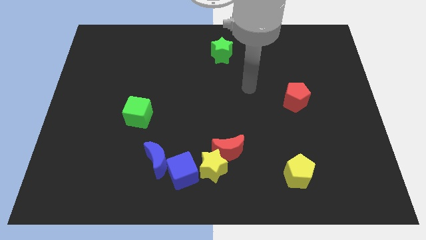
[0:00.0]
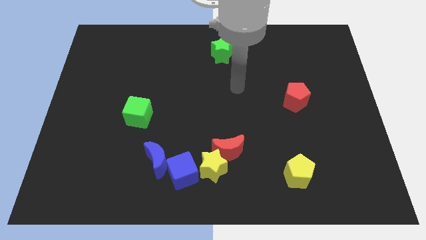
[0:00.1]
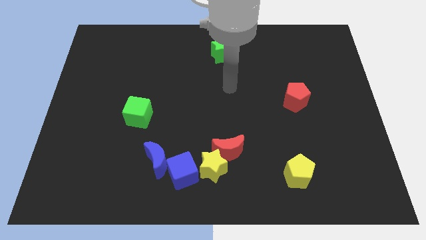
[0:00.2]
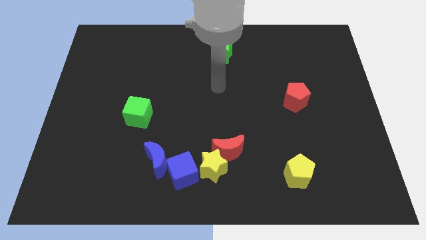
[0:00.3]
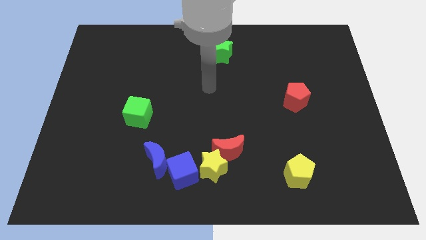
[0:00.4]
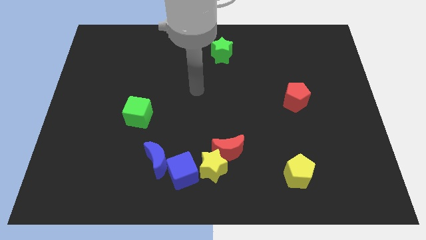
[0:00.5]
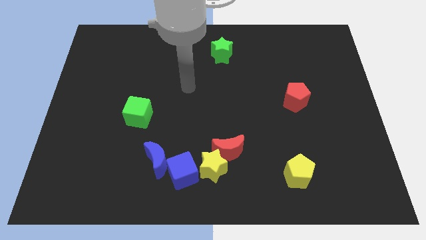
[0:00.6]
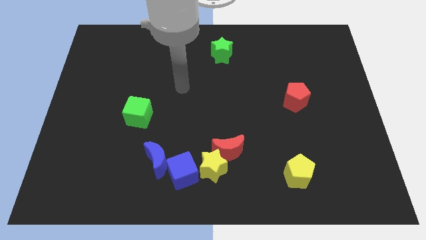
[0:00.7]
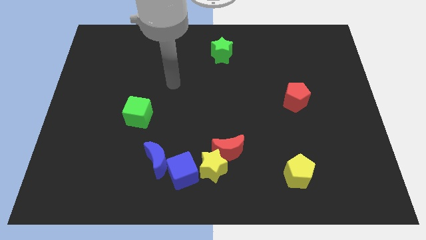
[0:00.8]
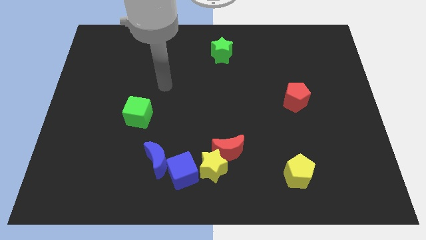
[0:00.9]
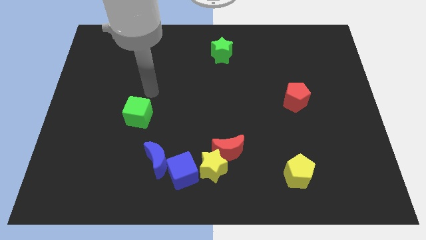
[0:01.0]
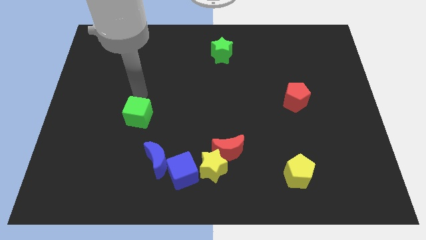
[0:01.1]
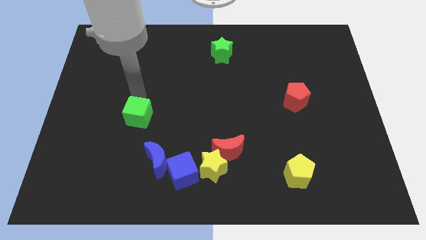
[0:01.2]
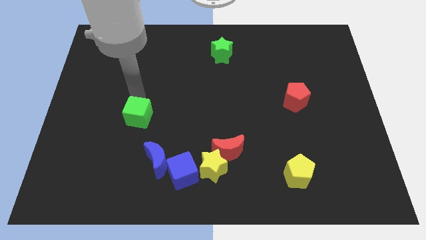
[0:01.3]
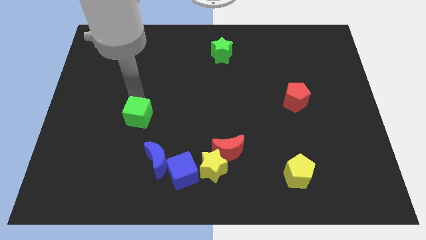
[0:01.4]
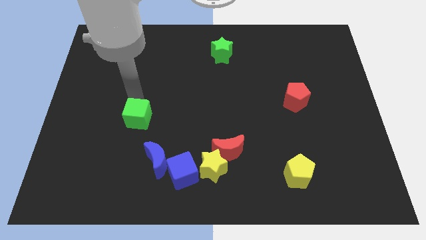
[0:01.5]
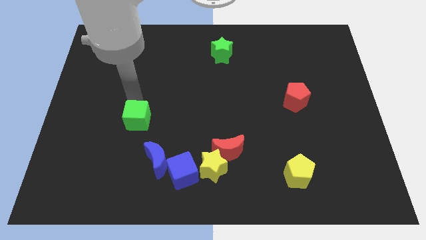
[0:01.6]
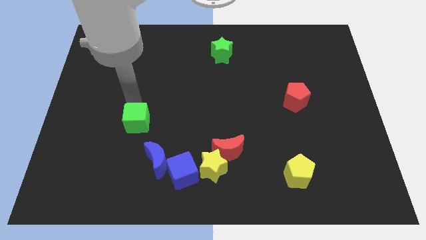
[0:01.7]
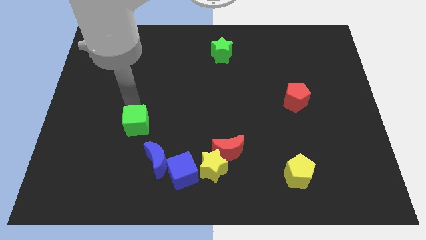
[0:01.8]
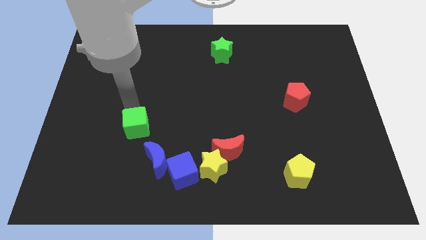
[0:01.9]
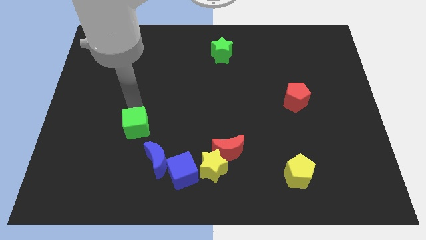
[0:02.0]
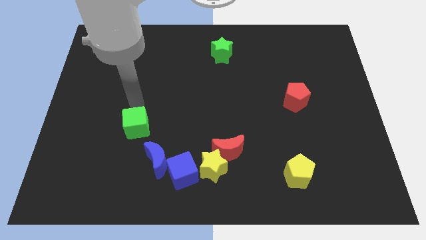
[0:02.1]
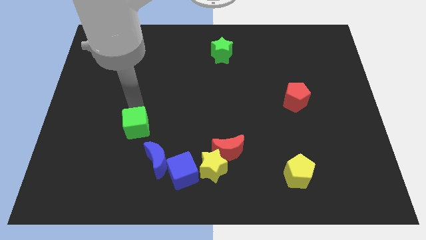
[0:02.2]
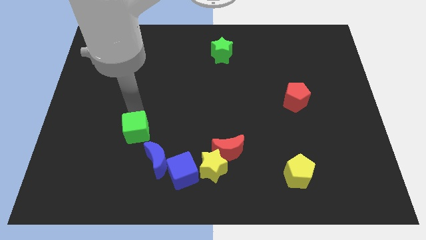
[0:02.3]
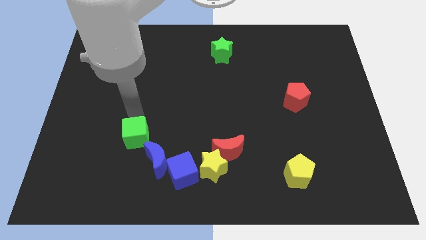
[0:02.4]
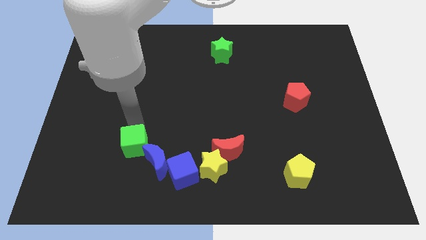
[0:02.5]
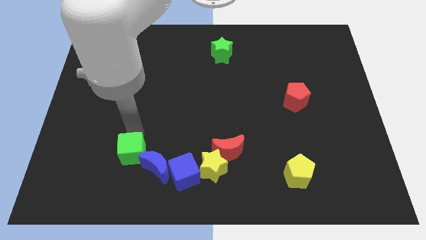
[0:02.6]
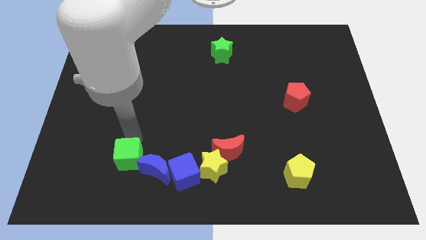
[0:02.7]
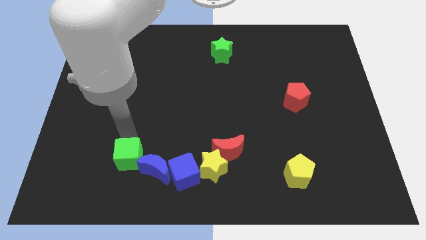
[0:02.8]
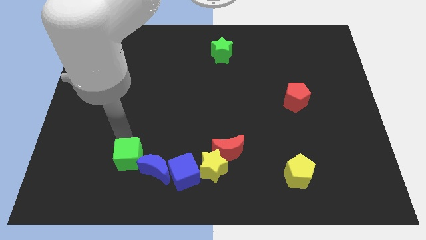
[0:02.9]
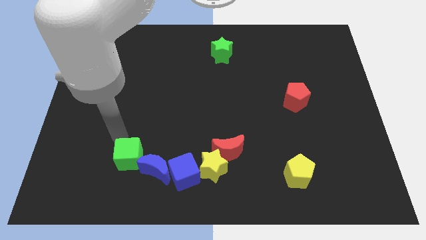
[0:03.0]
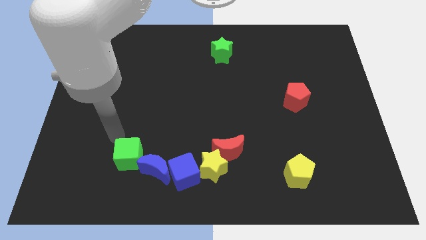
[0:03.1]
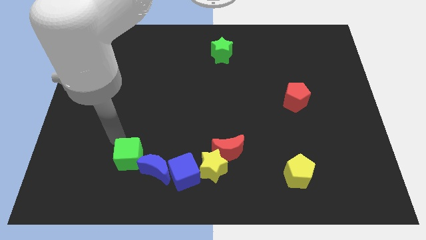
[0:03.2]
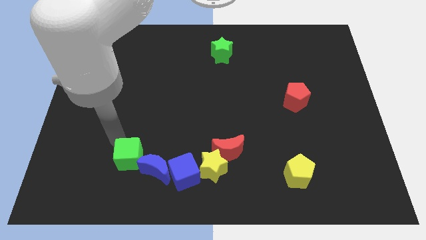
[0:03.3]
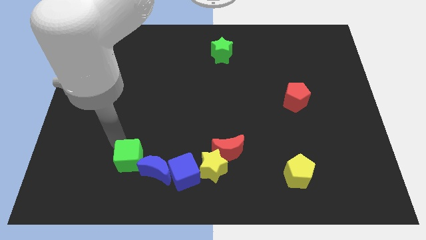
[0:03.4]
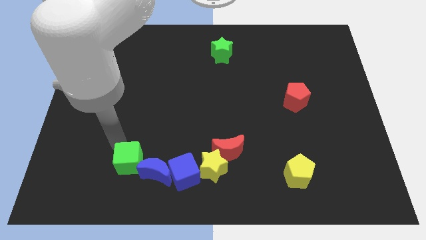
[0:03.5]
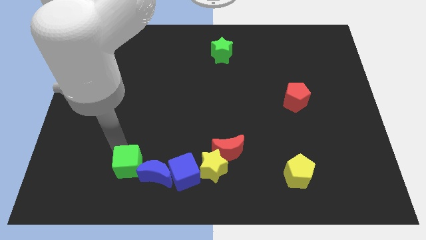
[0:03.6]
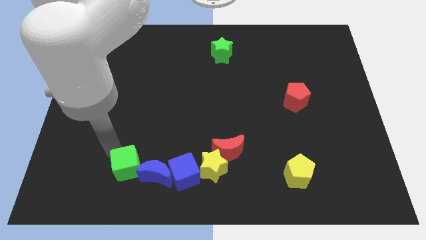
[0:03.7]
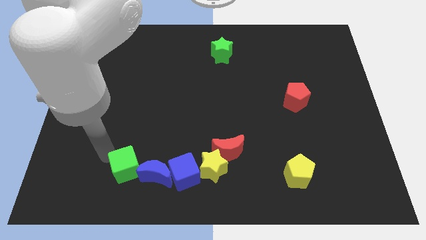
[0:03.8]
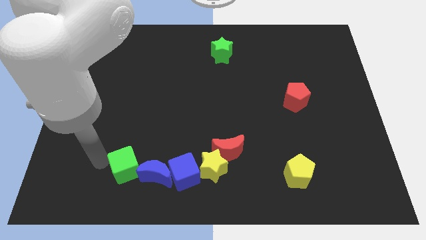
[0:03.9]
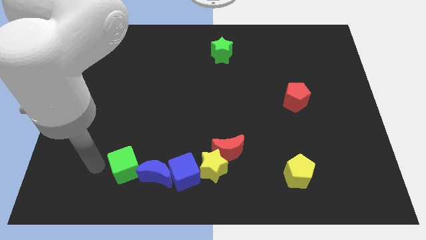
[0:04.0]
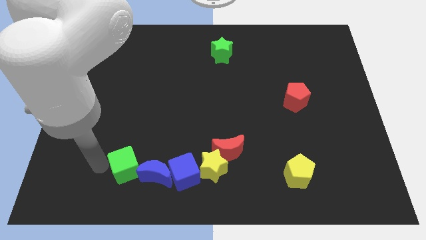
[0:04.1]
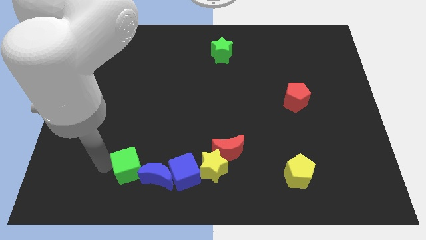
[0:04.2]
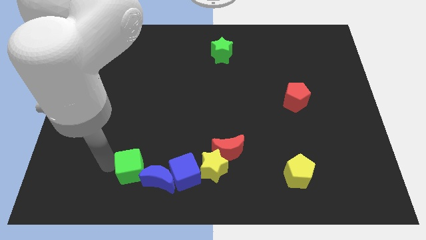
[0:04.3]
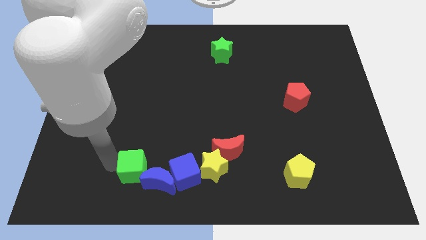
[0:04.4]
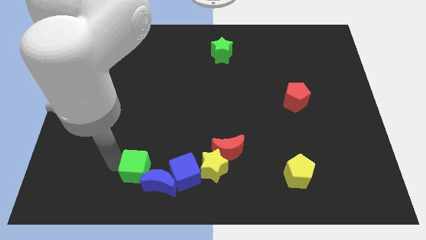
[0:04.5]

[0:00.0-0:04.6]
slide the green cube to the left side of the yellow star

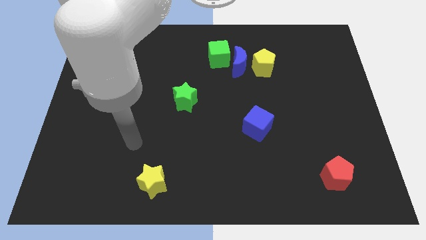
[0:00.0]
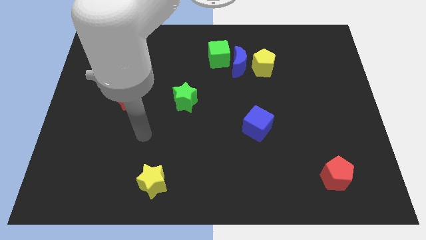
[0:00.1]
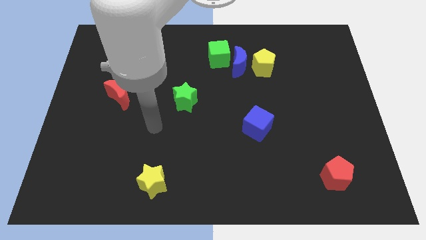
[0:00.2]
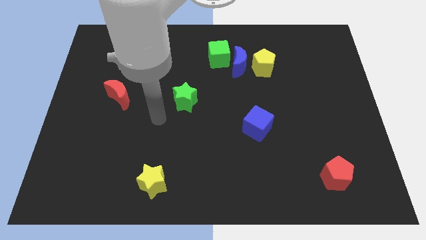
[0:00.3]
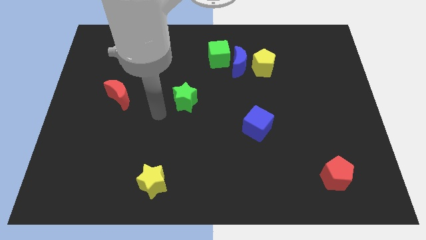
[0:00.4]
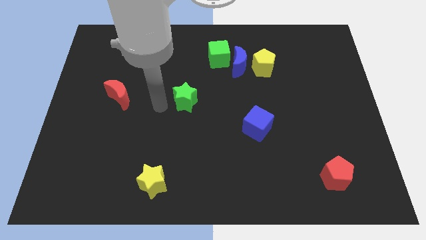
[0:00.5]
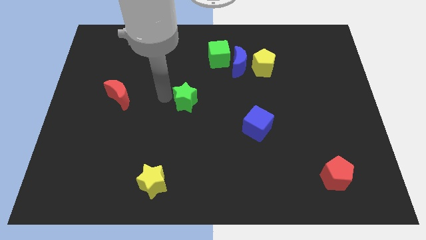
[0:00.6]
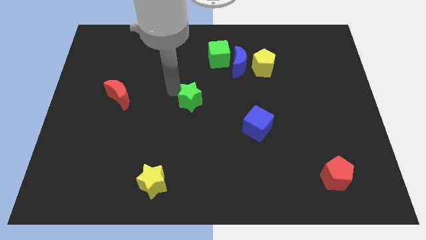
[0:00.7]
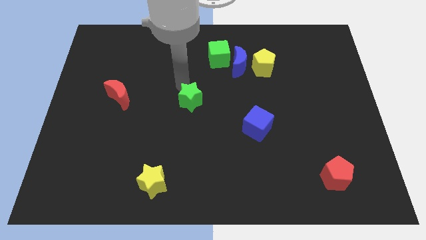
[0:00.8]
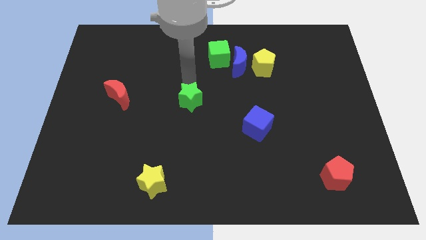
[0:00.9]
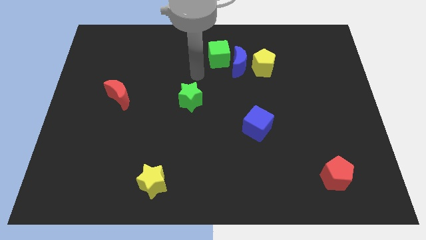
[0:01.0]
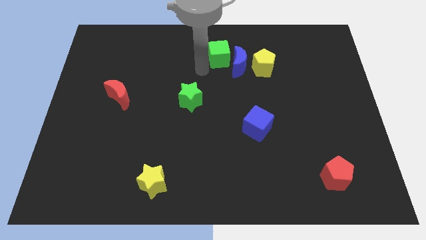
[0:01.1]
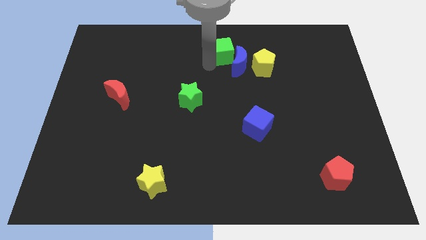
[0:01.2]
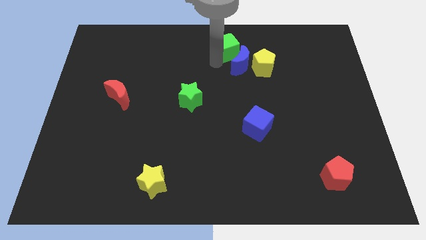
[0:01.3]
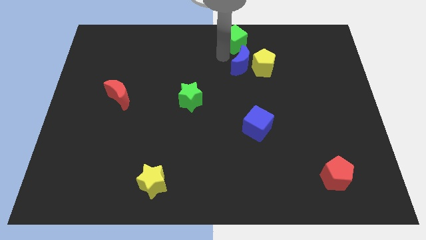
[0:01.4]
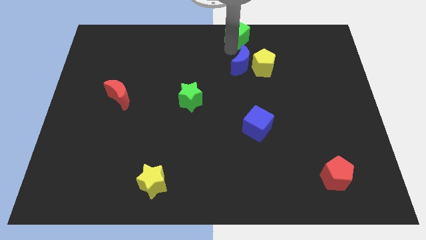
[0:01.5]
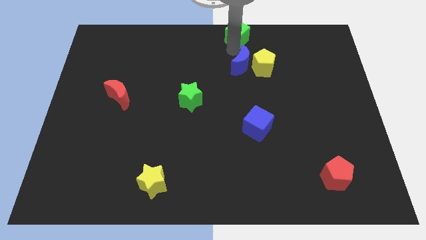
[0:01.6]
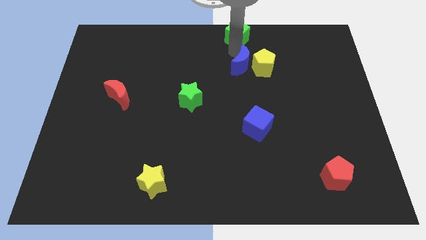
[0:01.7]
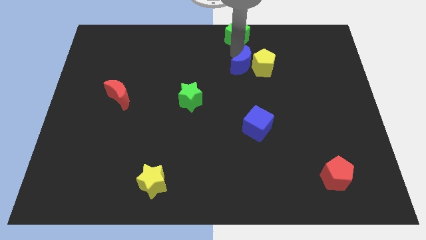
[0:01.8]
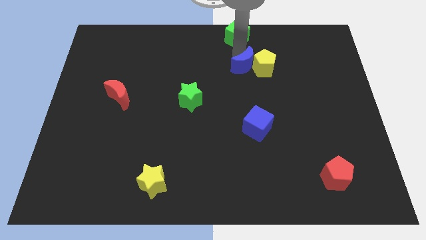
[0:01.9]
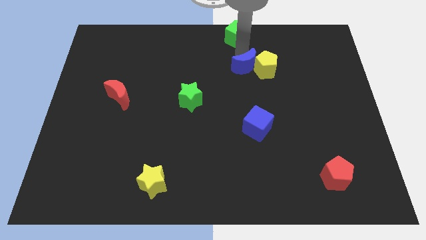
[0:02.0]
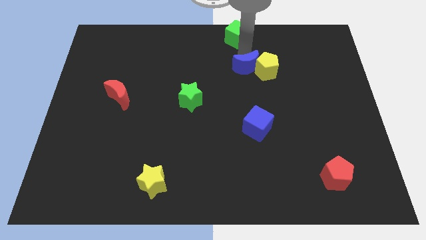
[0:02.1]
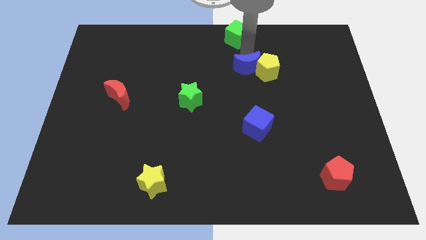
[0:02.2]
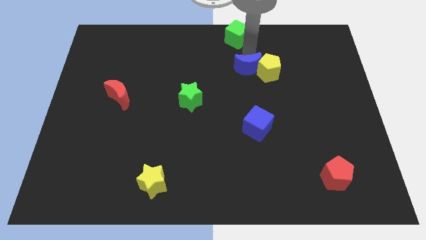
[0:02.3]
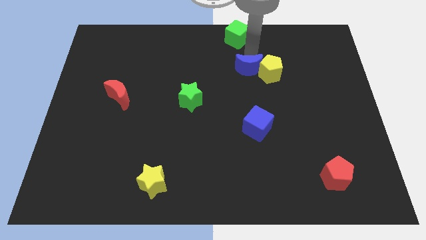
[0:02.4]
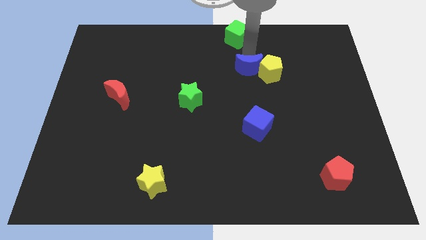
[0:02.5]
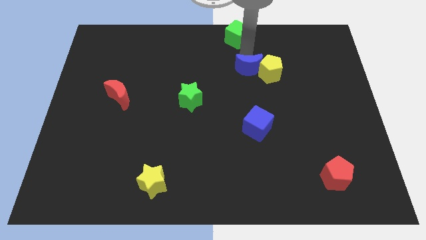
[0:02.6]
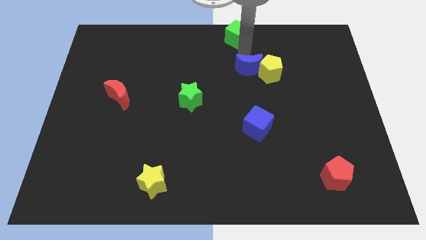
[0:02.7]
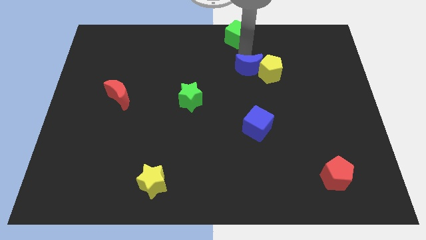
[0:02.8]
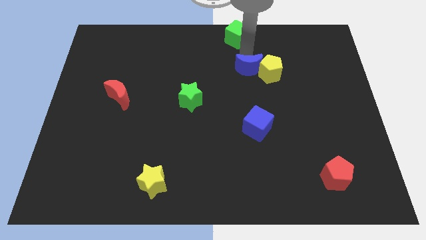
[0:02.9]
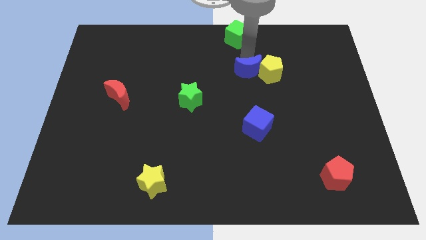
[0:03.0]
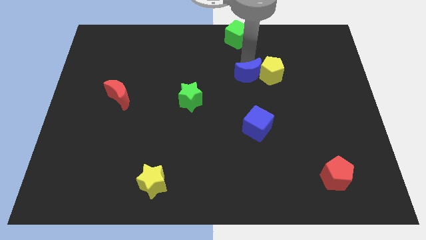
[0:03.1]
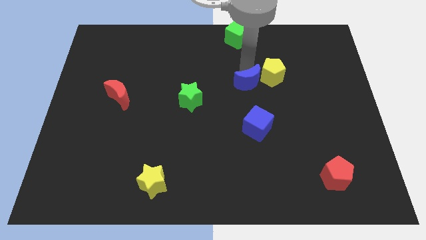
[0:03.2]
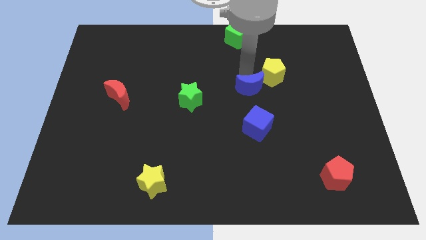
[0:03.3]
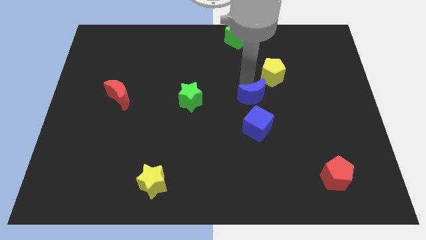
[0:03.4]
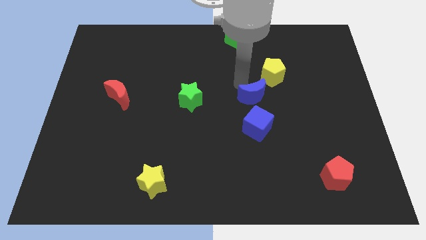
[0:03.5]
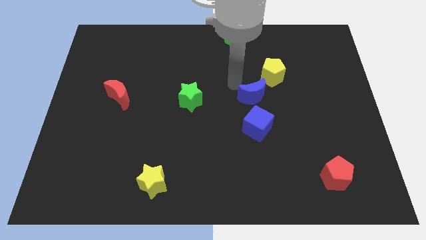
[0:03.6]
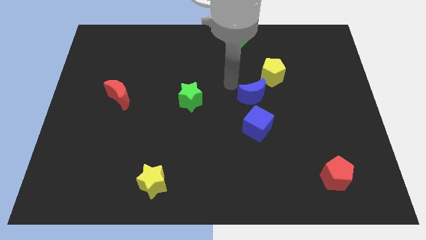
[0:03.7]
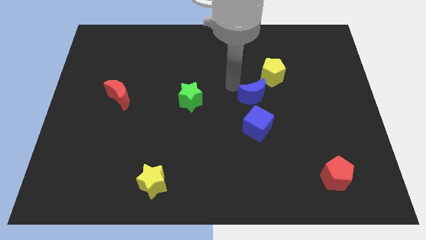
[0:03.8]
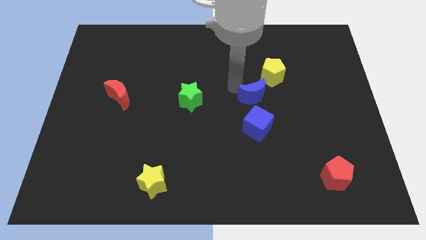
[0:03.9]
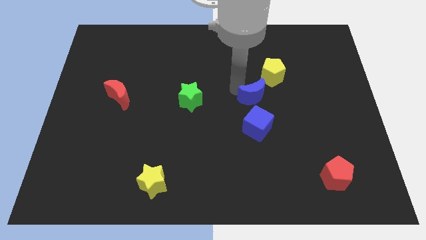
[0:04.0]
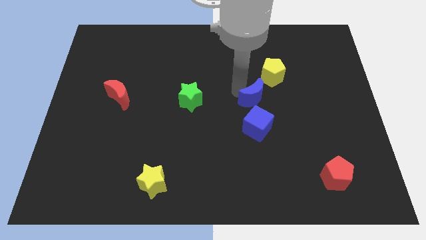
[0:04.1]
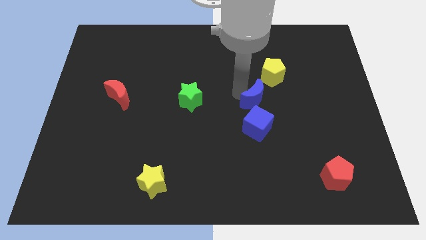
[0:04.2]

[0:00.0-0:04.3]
push the blue moon below the yellow pentagon
